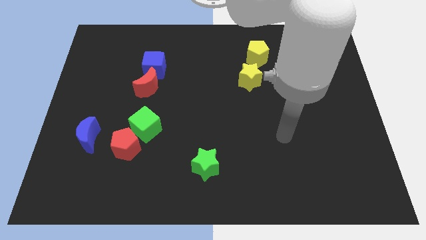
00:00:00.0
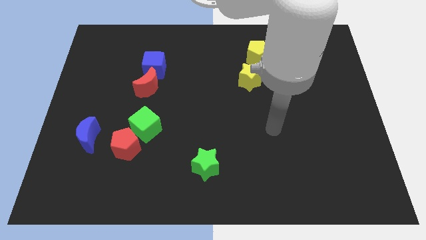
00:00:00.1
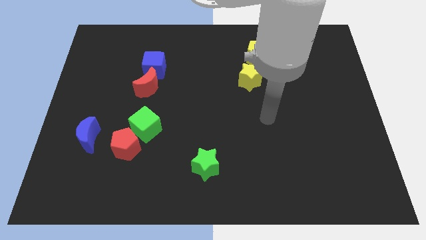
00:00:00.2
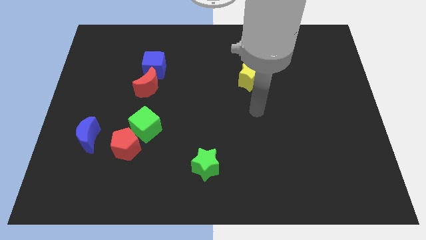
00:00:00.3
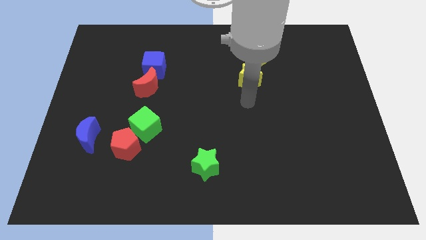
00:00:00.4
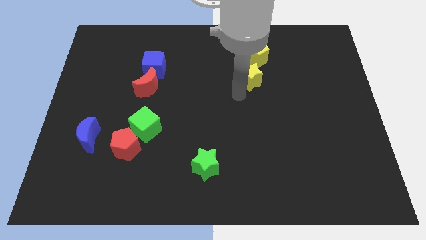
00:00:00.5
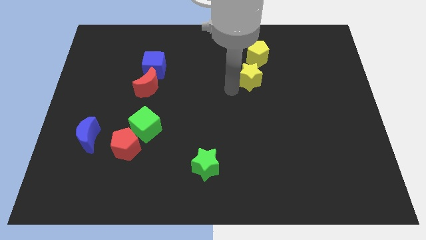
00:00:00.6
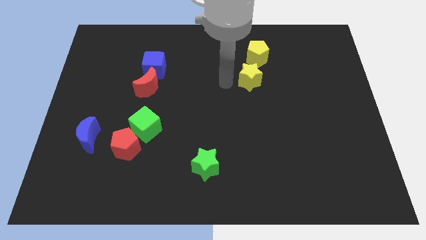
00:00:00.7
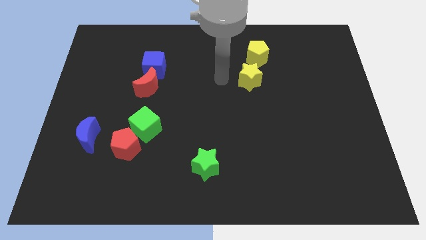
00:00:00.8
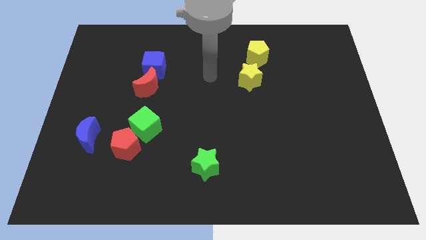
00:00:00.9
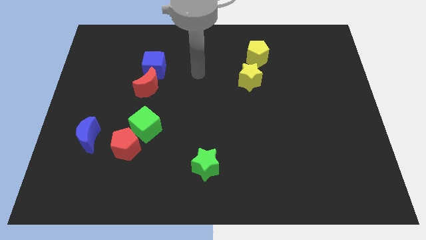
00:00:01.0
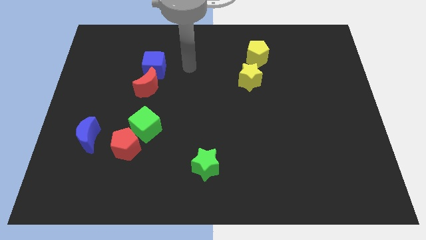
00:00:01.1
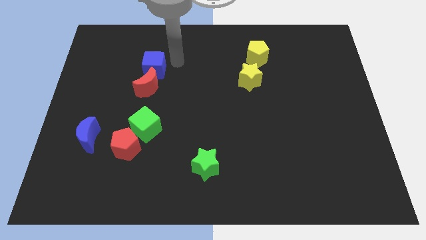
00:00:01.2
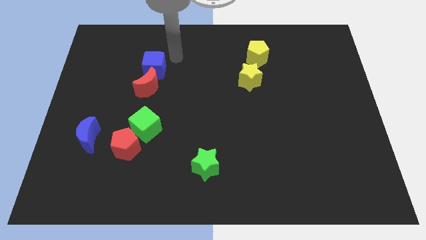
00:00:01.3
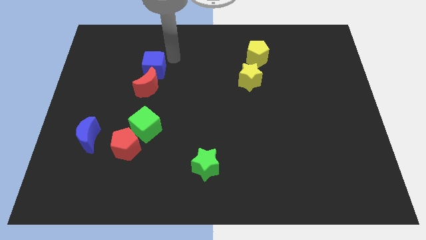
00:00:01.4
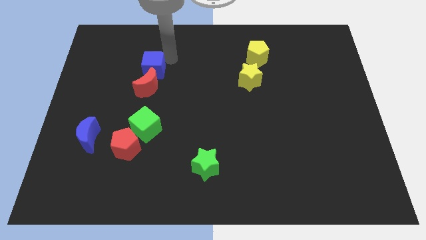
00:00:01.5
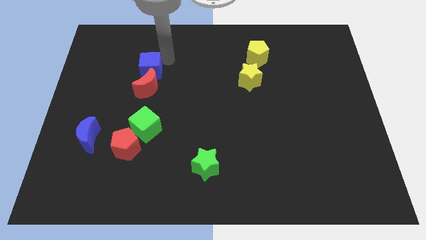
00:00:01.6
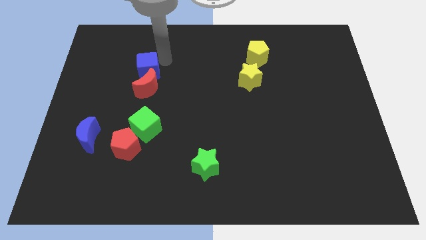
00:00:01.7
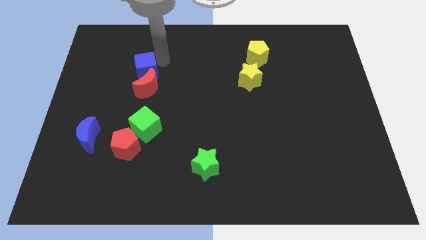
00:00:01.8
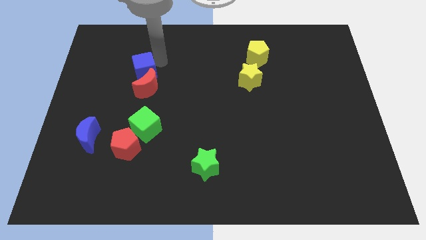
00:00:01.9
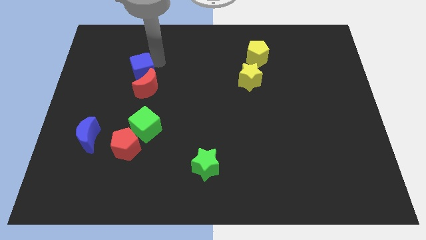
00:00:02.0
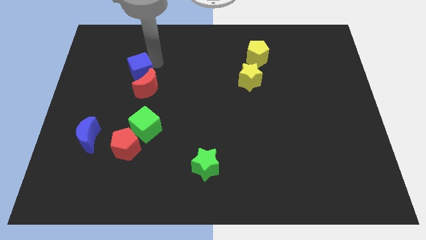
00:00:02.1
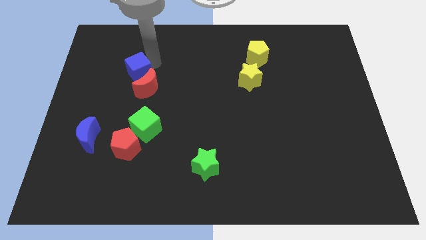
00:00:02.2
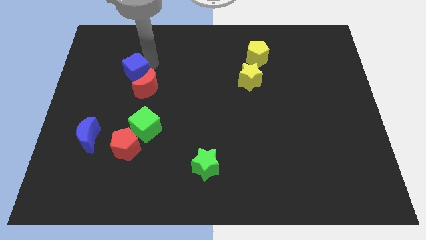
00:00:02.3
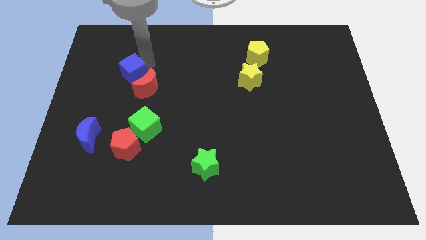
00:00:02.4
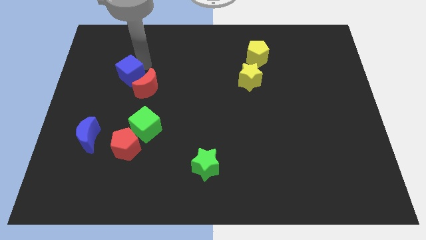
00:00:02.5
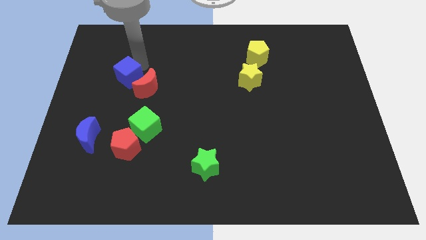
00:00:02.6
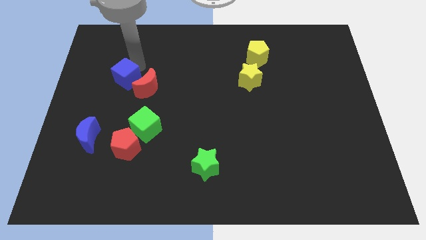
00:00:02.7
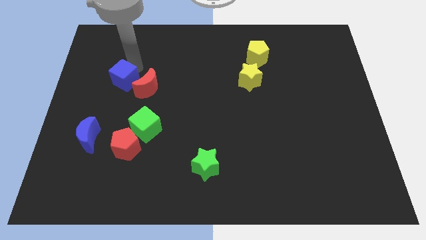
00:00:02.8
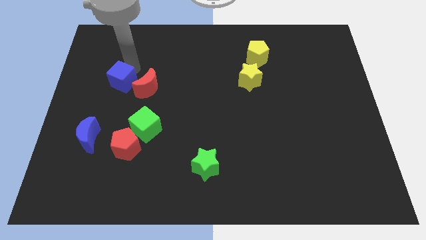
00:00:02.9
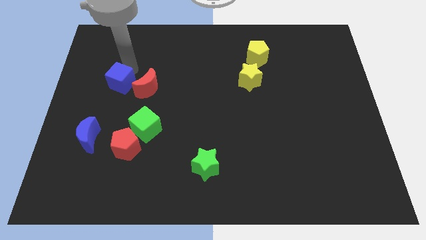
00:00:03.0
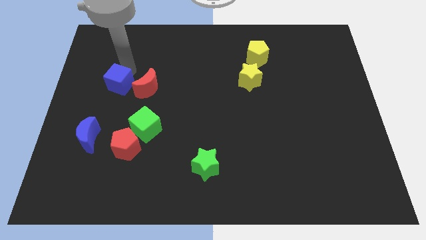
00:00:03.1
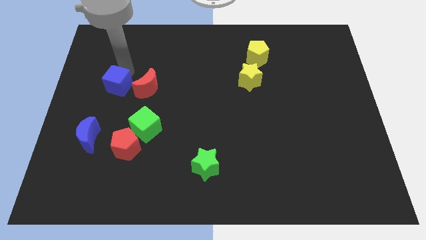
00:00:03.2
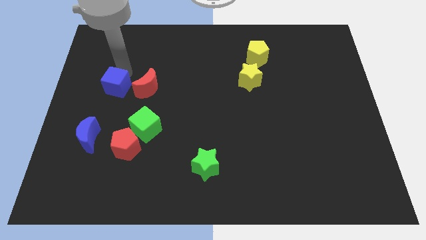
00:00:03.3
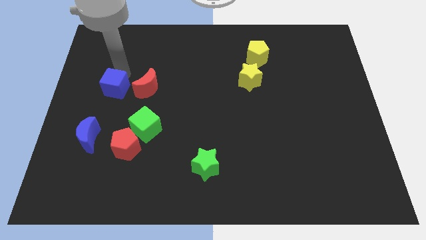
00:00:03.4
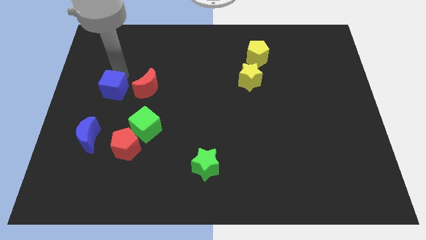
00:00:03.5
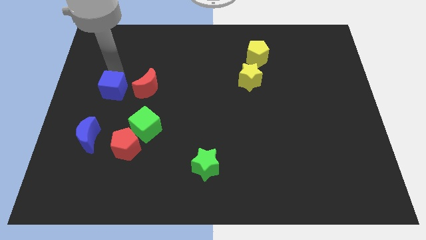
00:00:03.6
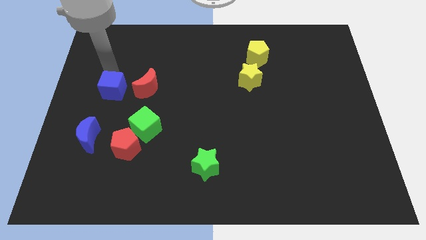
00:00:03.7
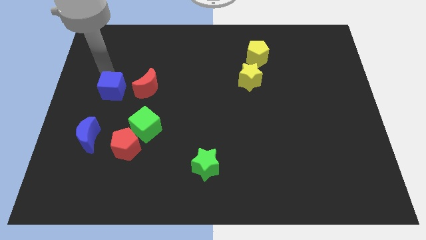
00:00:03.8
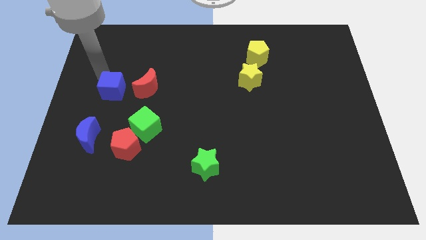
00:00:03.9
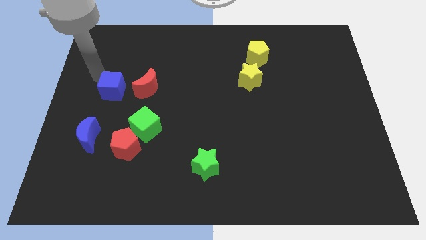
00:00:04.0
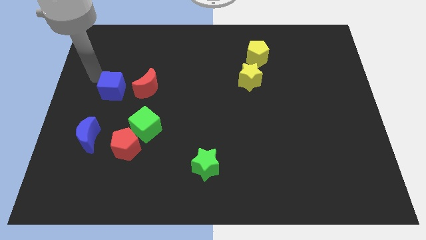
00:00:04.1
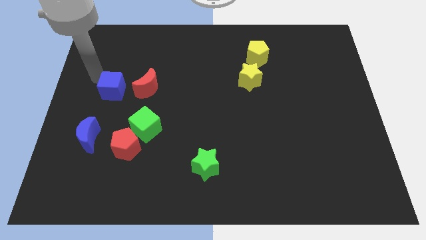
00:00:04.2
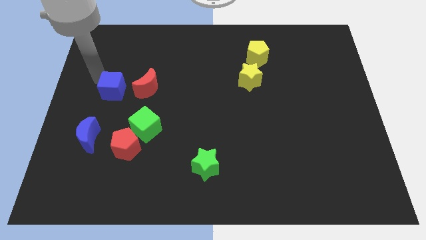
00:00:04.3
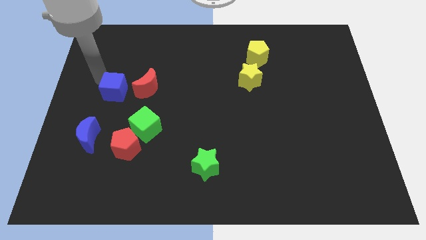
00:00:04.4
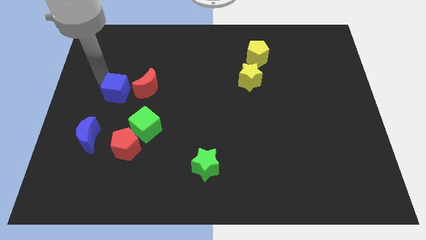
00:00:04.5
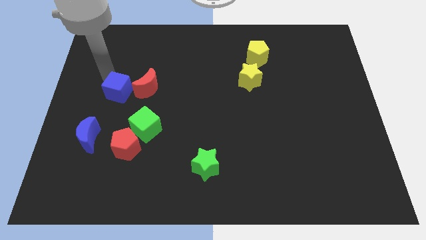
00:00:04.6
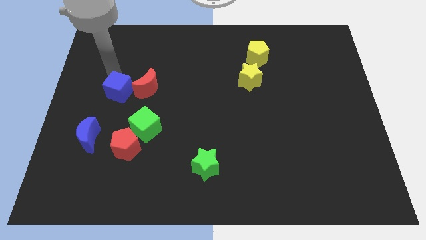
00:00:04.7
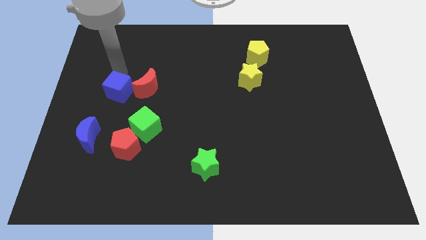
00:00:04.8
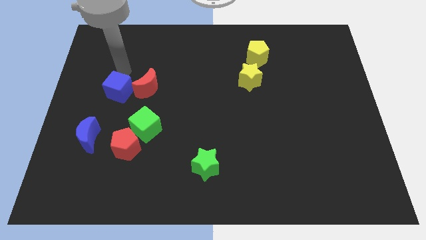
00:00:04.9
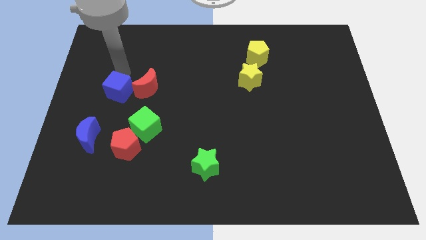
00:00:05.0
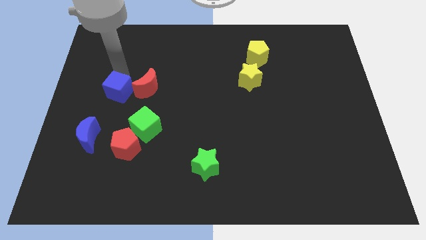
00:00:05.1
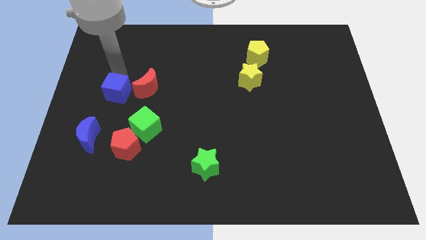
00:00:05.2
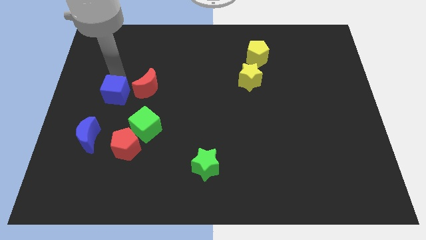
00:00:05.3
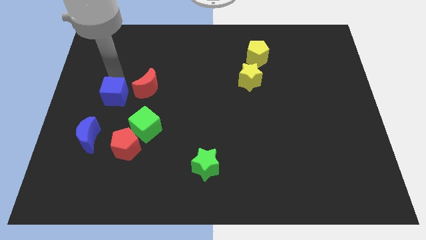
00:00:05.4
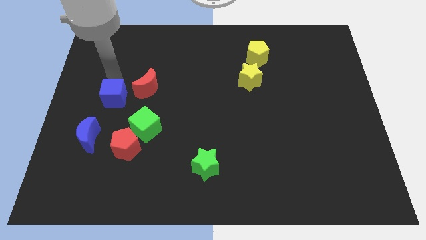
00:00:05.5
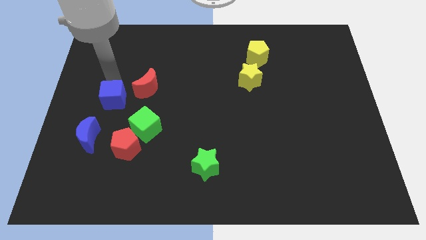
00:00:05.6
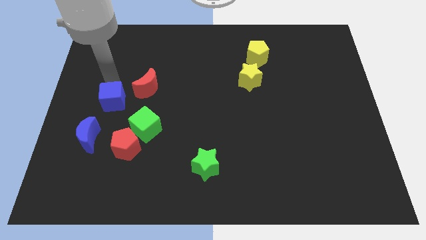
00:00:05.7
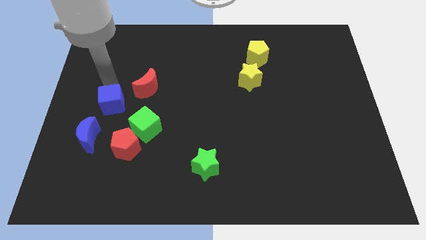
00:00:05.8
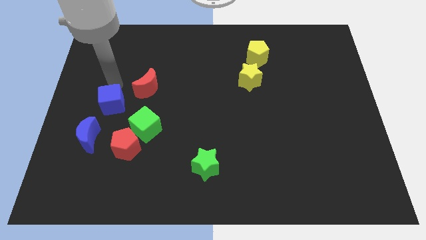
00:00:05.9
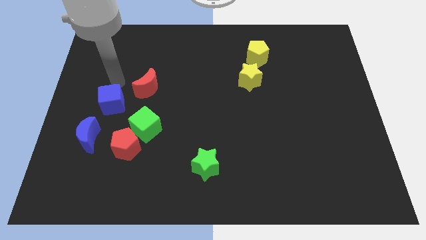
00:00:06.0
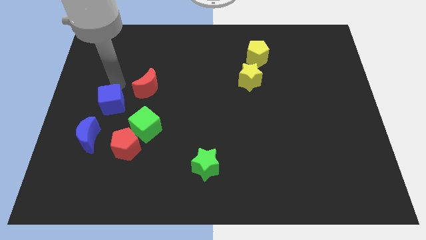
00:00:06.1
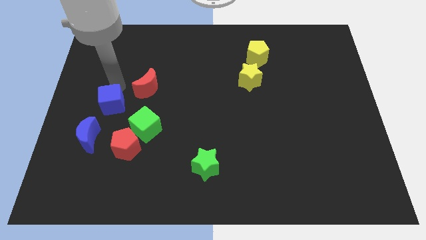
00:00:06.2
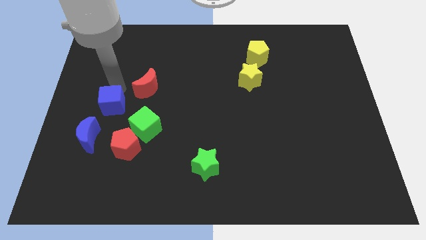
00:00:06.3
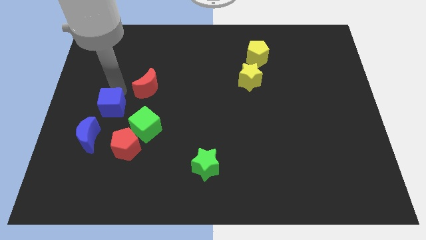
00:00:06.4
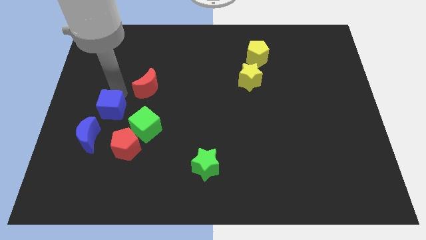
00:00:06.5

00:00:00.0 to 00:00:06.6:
put the blue cube to the top left of the red pentagon

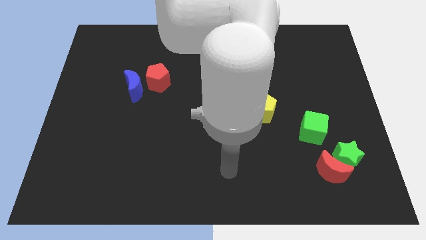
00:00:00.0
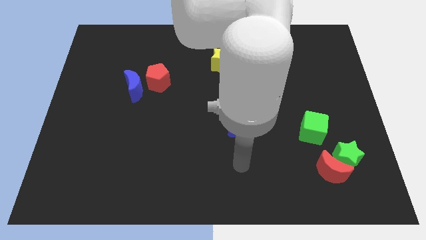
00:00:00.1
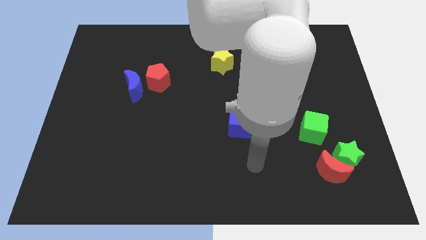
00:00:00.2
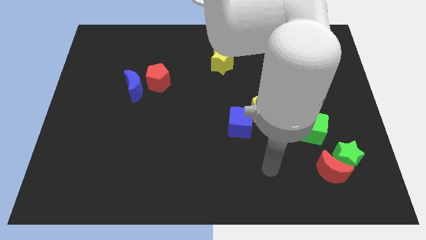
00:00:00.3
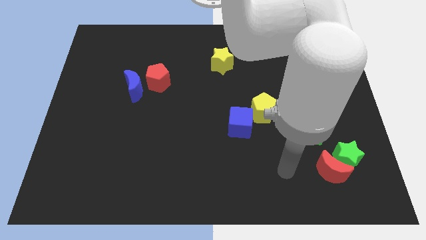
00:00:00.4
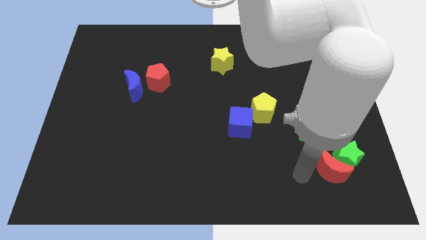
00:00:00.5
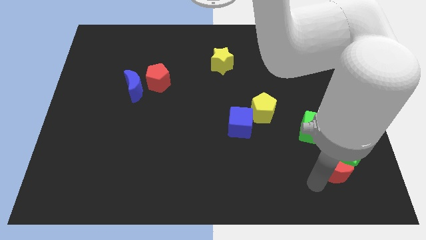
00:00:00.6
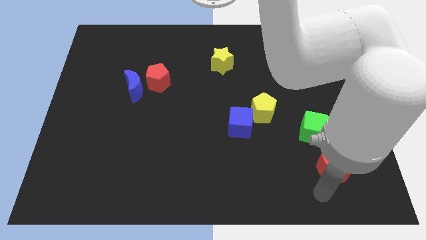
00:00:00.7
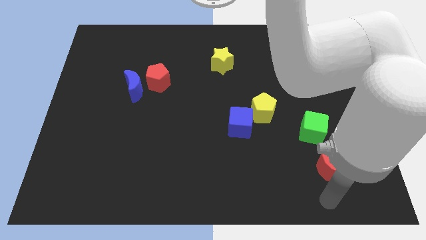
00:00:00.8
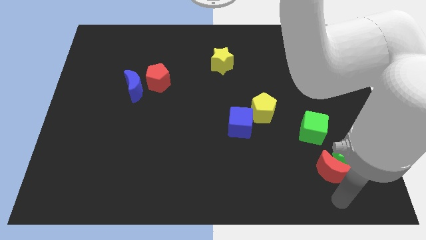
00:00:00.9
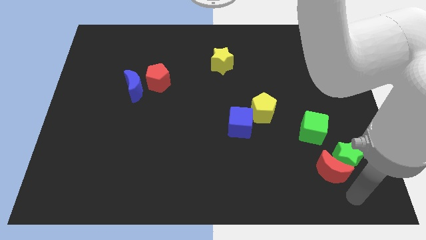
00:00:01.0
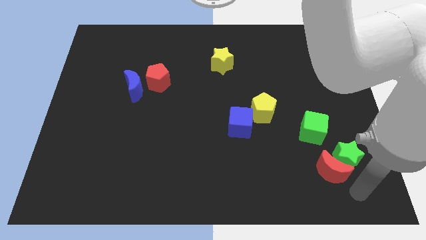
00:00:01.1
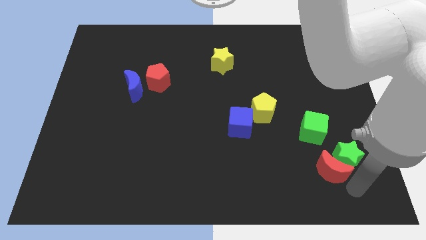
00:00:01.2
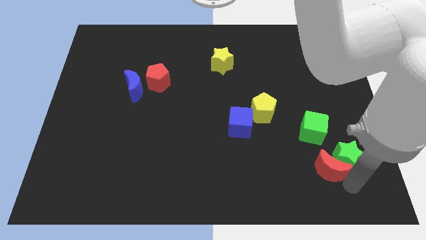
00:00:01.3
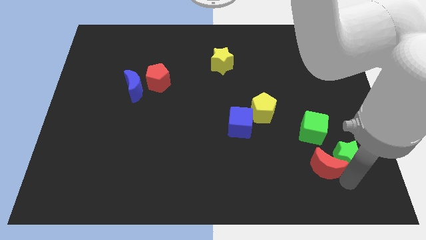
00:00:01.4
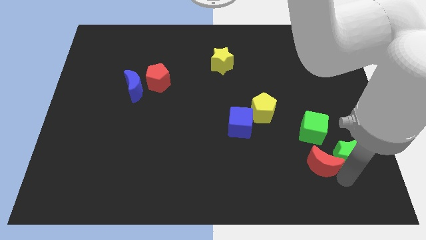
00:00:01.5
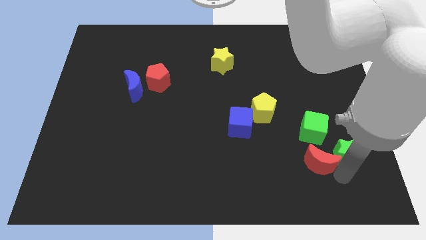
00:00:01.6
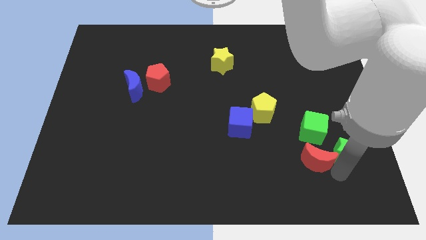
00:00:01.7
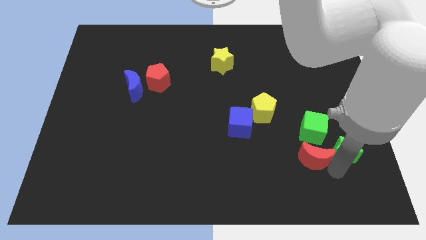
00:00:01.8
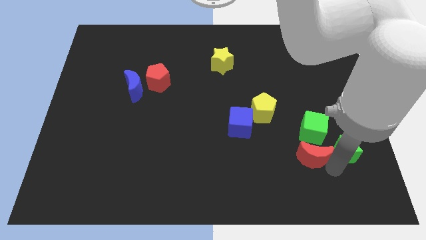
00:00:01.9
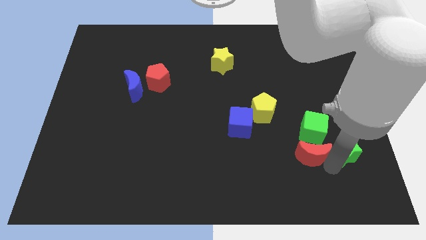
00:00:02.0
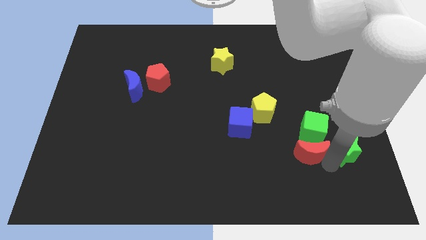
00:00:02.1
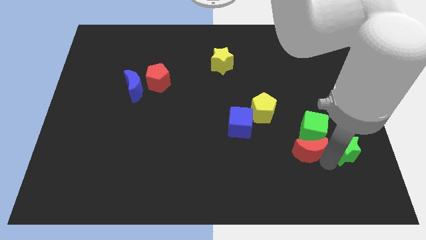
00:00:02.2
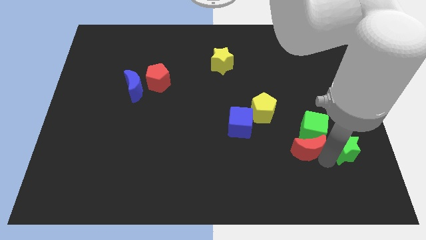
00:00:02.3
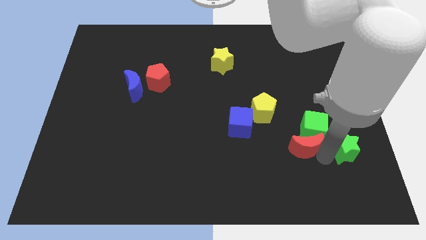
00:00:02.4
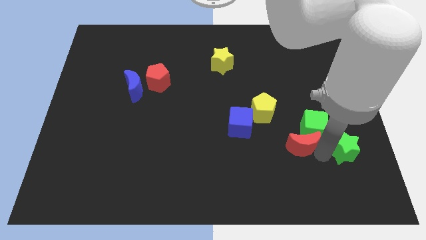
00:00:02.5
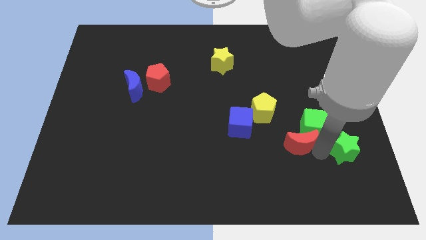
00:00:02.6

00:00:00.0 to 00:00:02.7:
slide the red moon just left of the green cube
